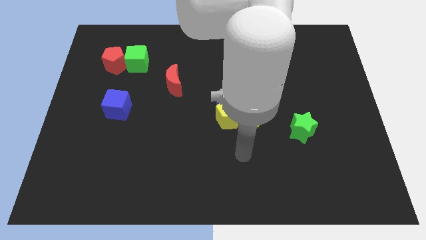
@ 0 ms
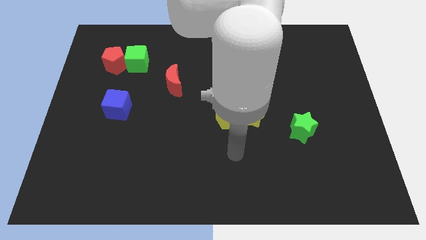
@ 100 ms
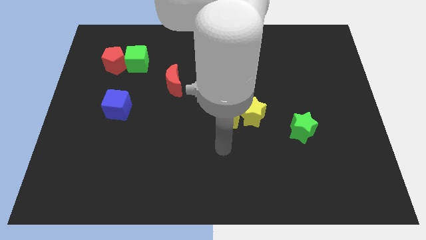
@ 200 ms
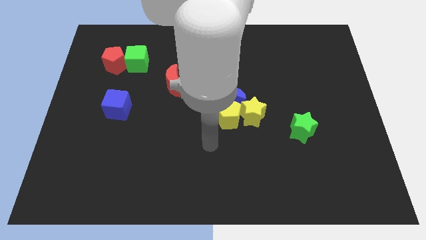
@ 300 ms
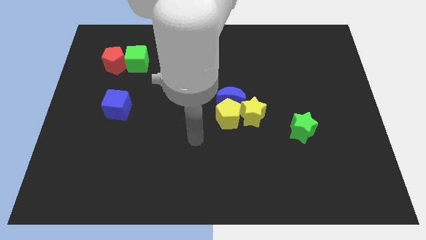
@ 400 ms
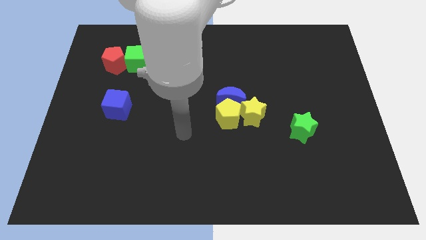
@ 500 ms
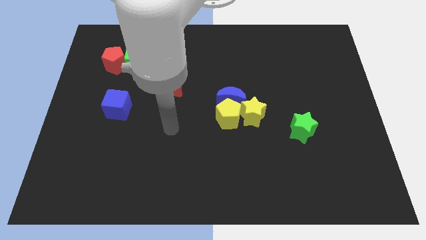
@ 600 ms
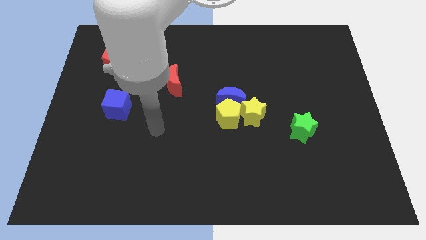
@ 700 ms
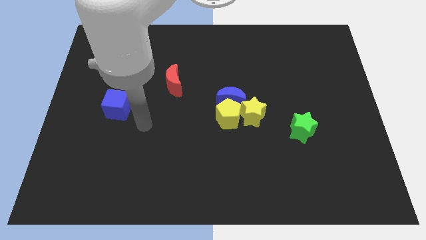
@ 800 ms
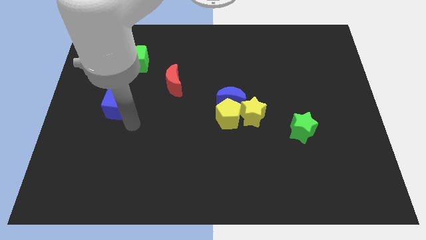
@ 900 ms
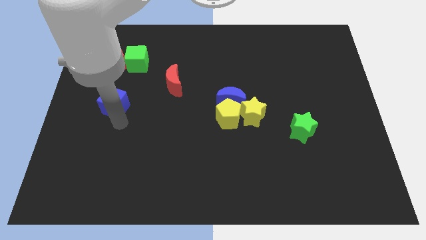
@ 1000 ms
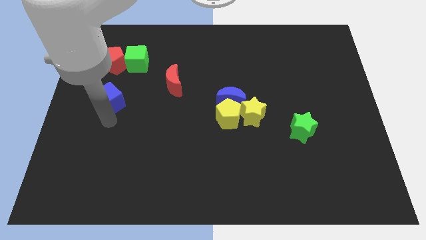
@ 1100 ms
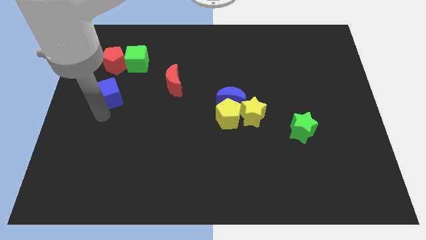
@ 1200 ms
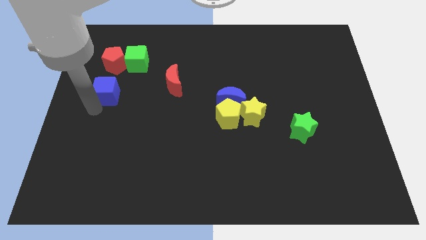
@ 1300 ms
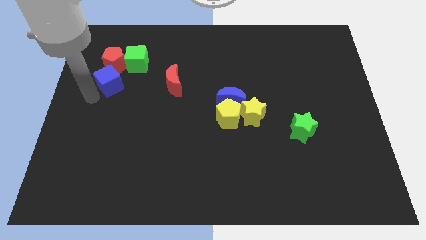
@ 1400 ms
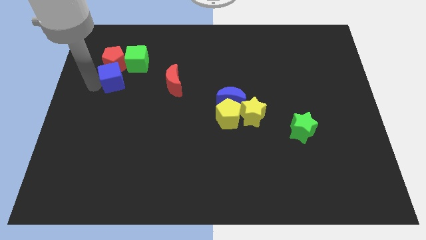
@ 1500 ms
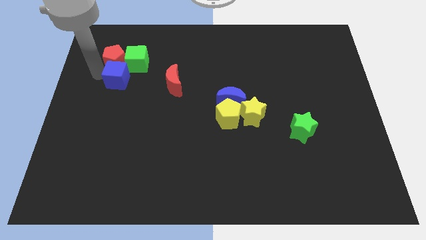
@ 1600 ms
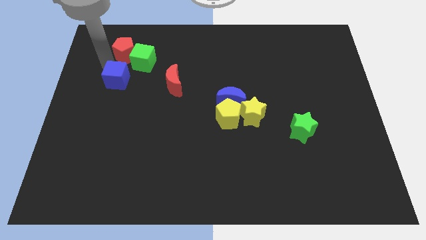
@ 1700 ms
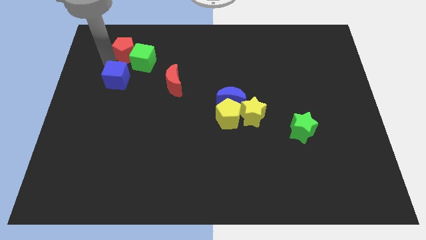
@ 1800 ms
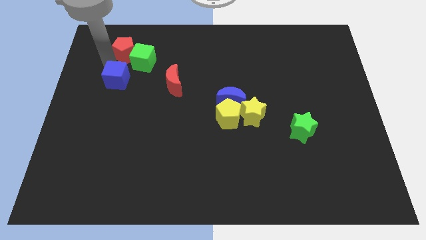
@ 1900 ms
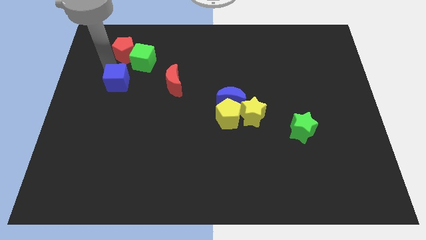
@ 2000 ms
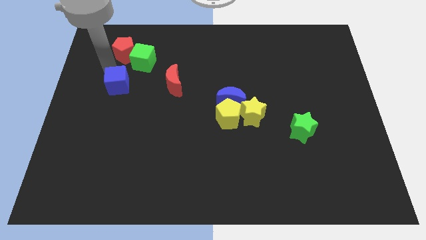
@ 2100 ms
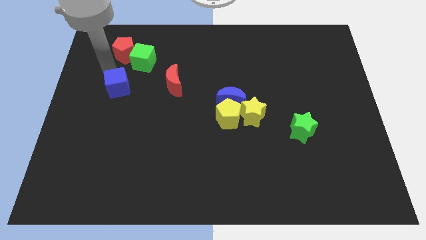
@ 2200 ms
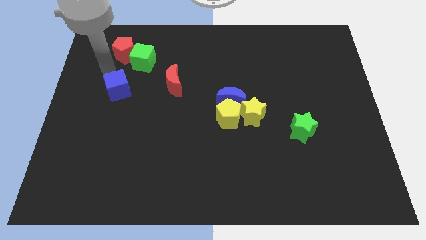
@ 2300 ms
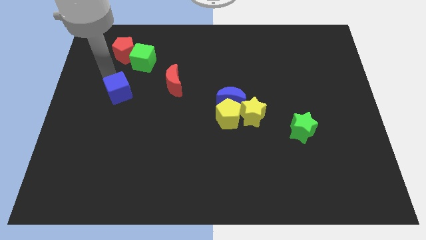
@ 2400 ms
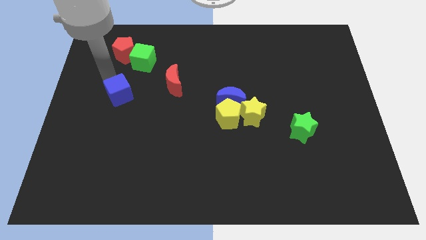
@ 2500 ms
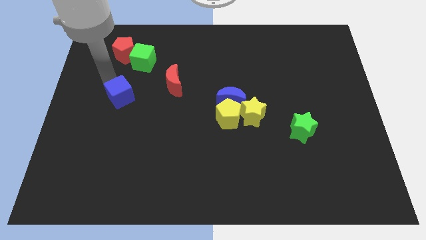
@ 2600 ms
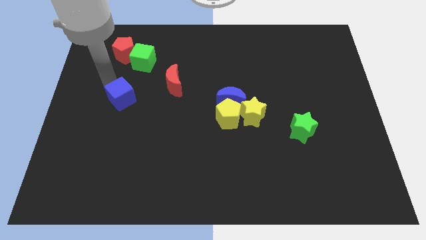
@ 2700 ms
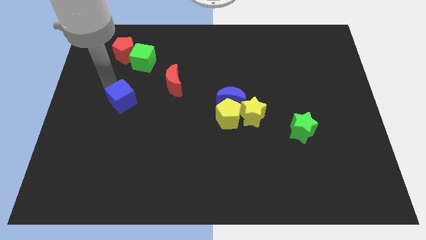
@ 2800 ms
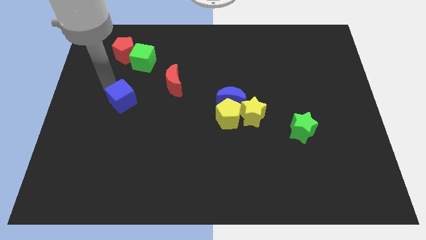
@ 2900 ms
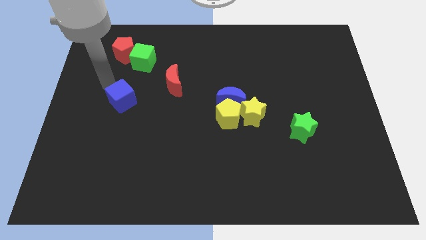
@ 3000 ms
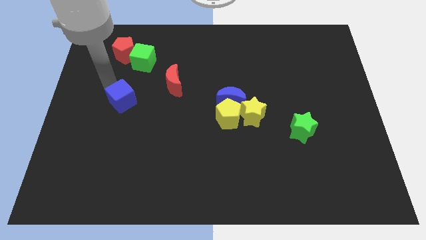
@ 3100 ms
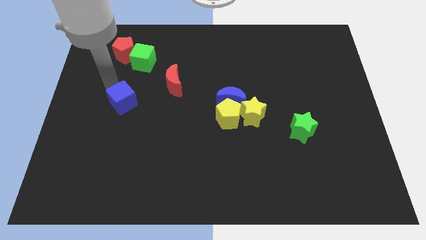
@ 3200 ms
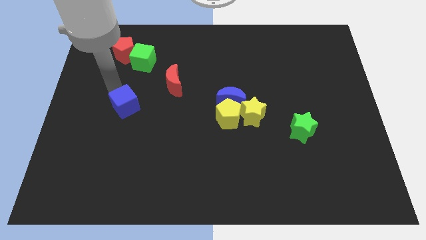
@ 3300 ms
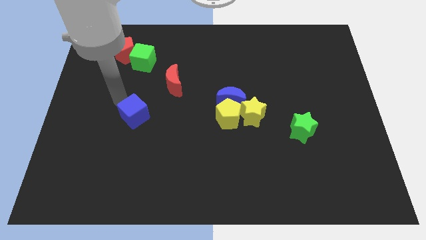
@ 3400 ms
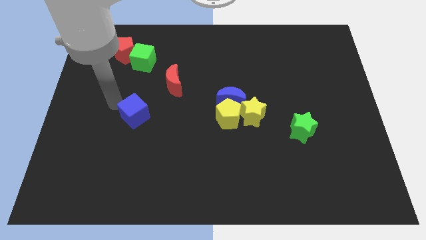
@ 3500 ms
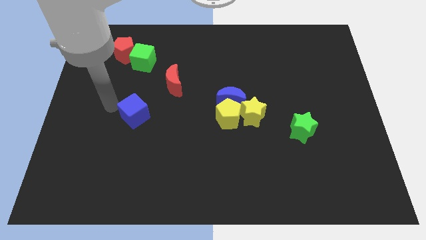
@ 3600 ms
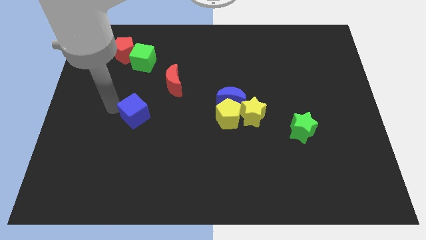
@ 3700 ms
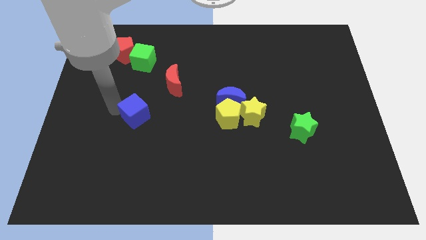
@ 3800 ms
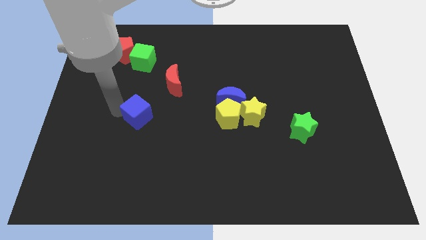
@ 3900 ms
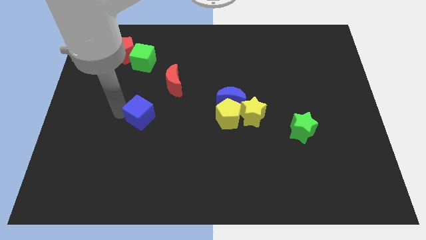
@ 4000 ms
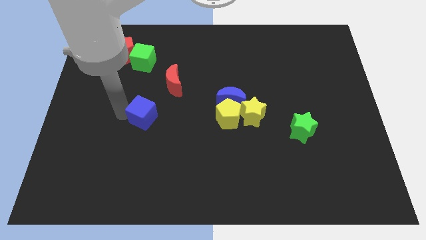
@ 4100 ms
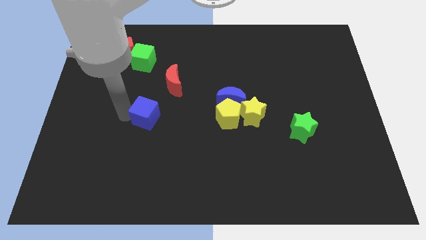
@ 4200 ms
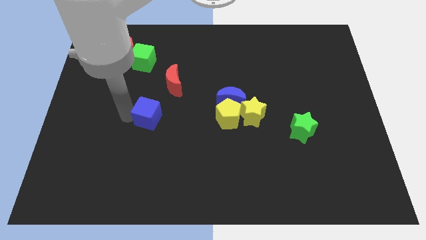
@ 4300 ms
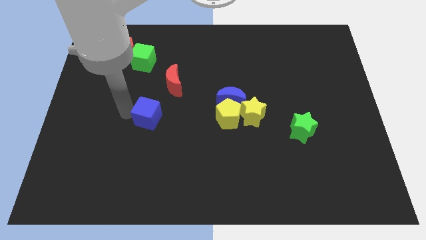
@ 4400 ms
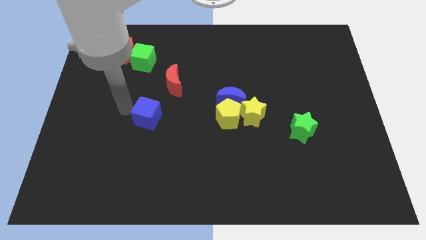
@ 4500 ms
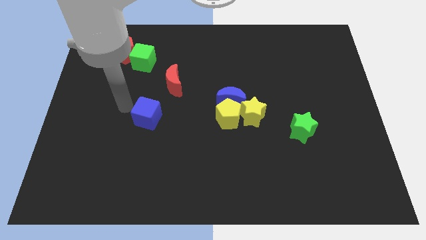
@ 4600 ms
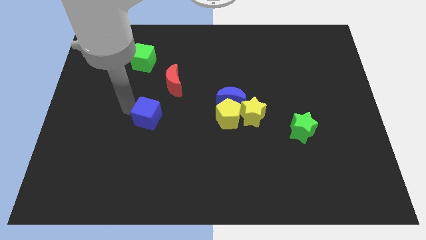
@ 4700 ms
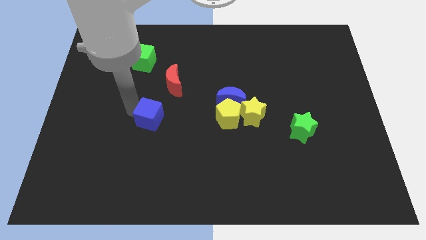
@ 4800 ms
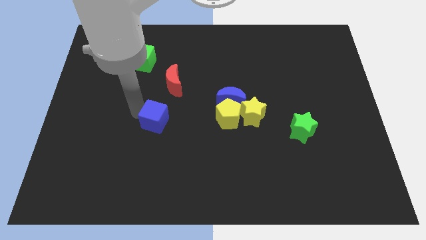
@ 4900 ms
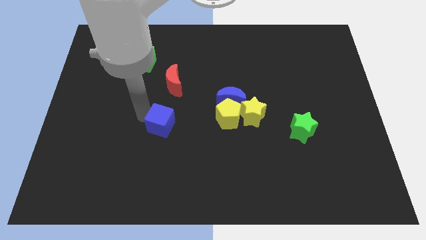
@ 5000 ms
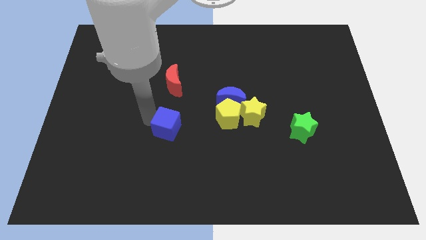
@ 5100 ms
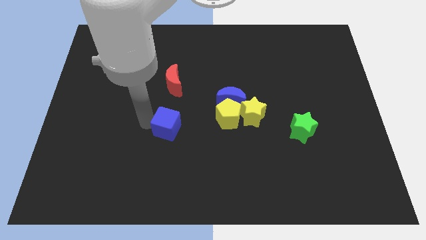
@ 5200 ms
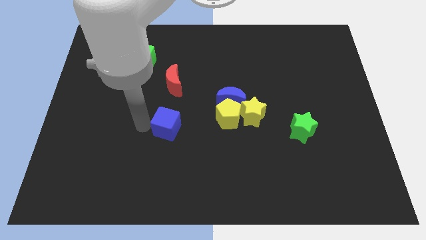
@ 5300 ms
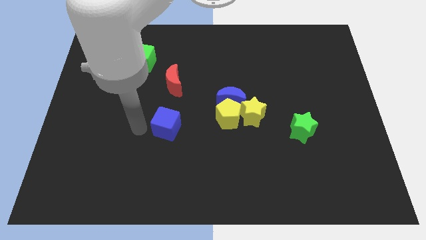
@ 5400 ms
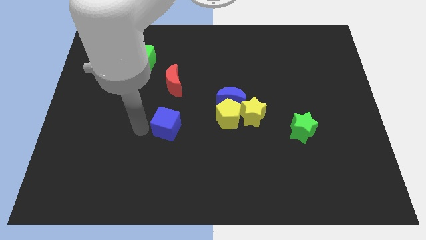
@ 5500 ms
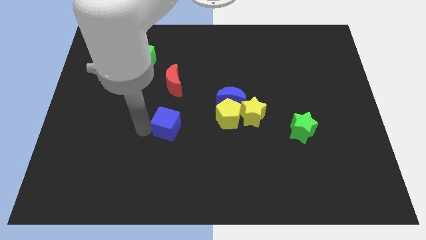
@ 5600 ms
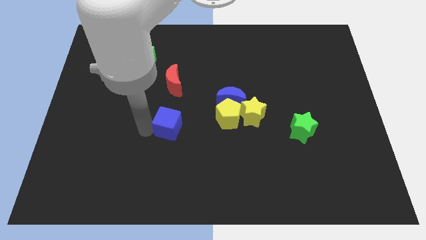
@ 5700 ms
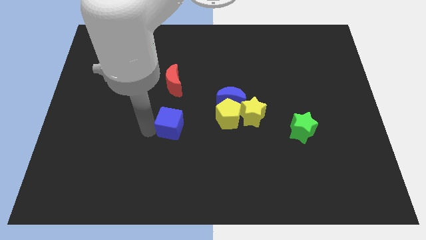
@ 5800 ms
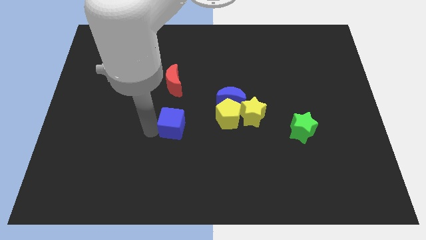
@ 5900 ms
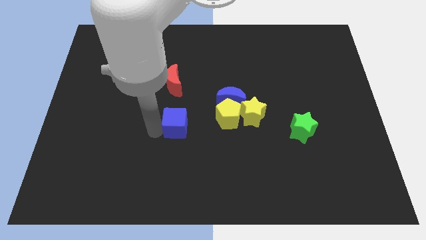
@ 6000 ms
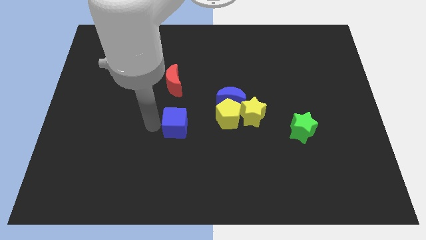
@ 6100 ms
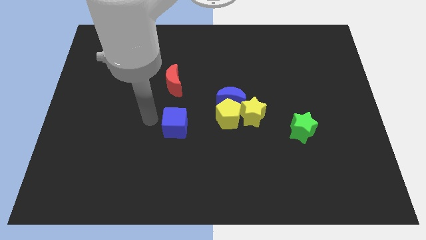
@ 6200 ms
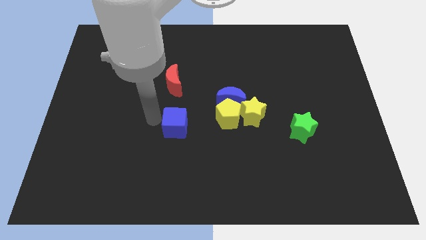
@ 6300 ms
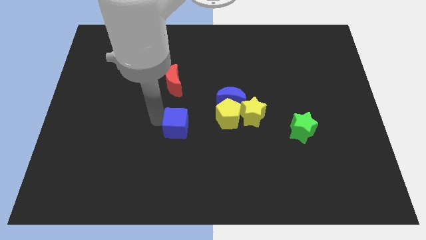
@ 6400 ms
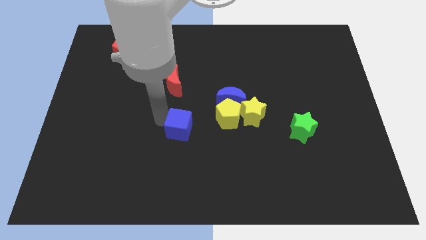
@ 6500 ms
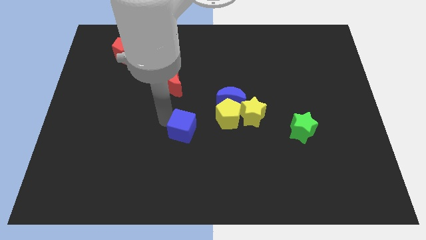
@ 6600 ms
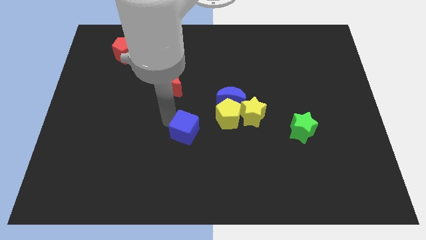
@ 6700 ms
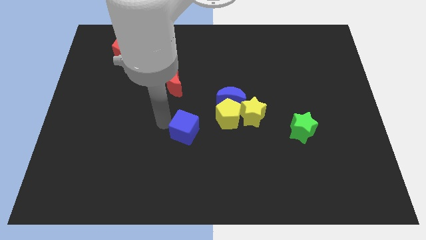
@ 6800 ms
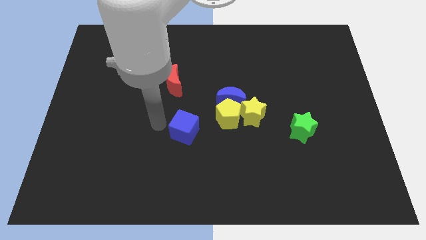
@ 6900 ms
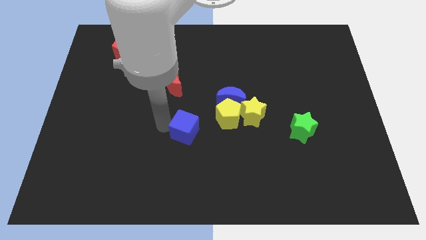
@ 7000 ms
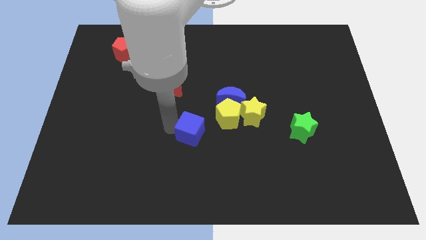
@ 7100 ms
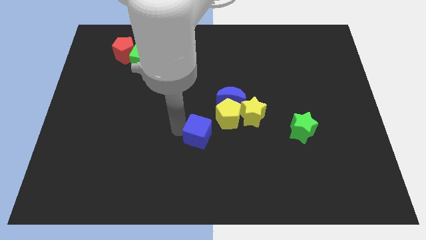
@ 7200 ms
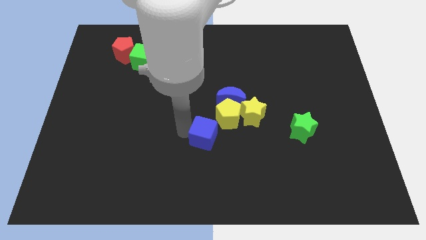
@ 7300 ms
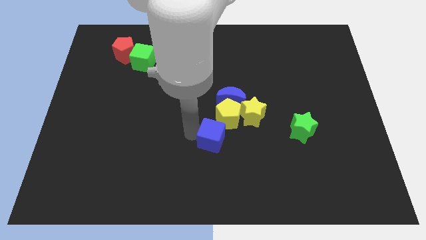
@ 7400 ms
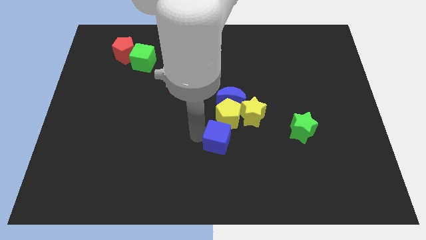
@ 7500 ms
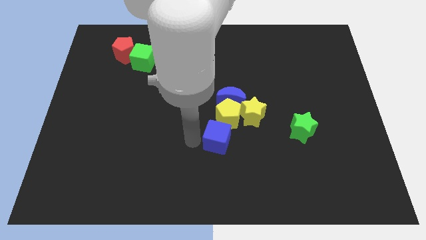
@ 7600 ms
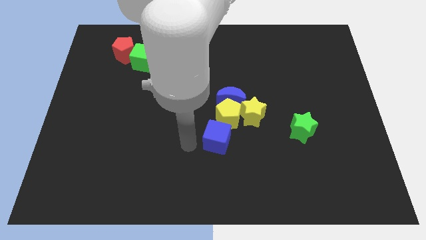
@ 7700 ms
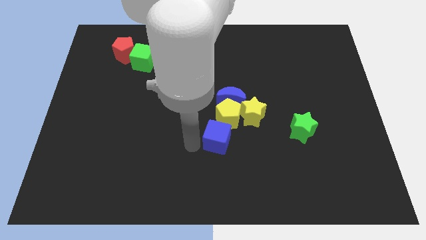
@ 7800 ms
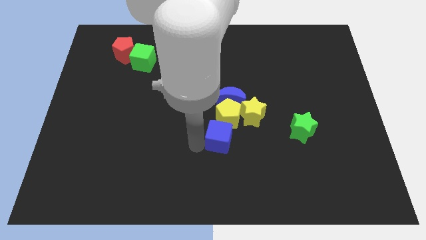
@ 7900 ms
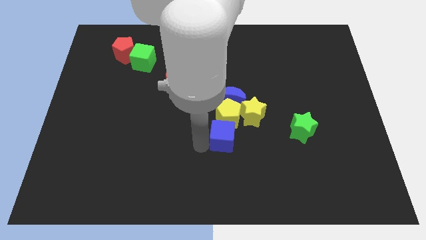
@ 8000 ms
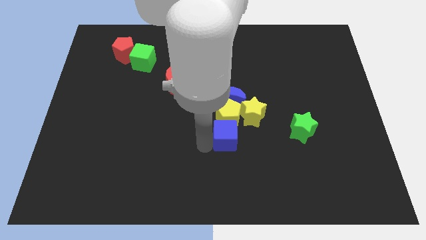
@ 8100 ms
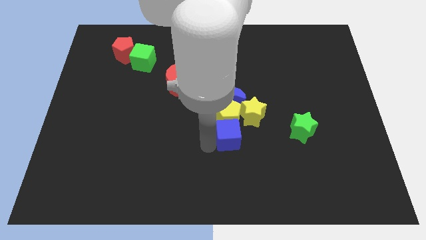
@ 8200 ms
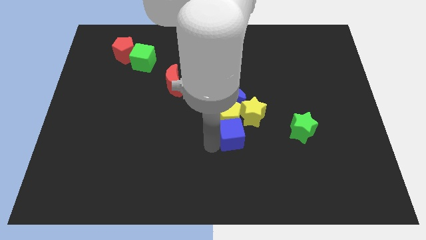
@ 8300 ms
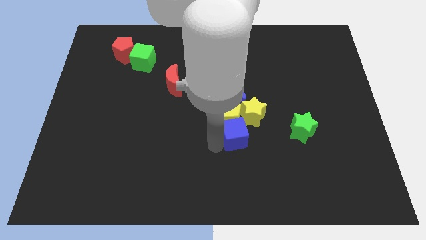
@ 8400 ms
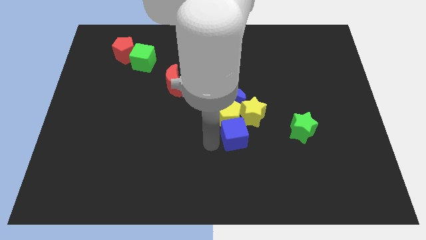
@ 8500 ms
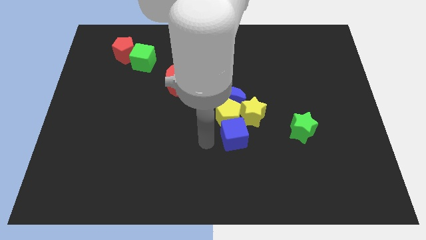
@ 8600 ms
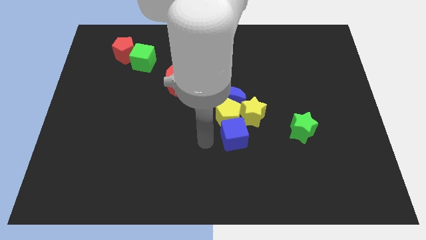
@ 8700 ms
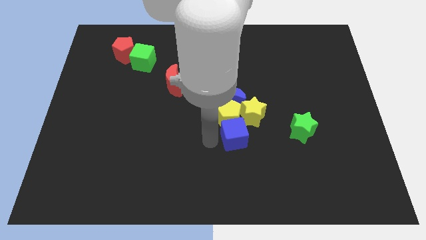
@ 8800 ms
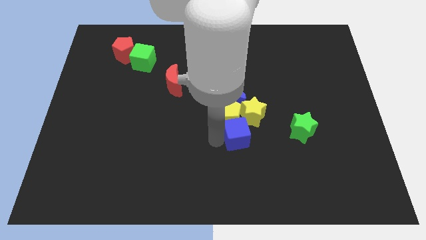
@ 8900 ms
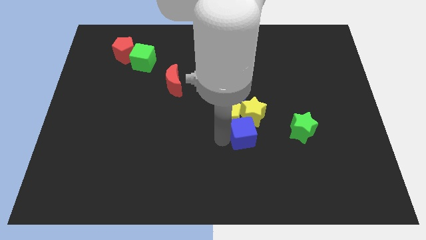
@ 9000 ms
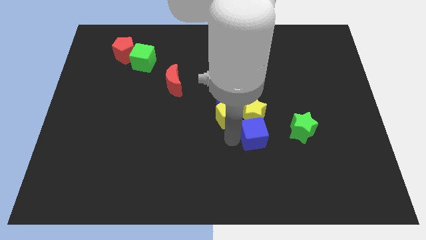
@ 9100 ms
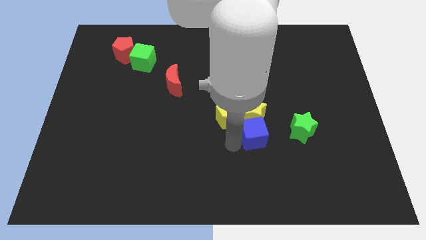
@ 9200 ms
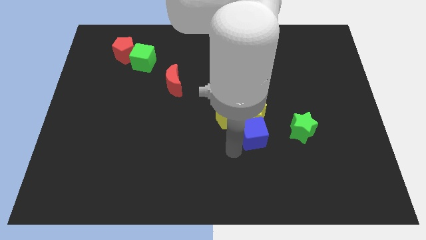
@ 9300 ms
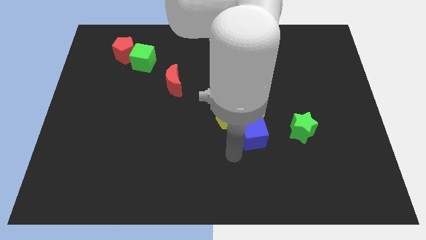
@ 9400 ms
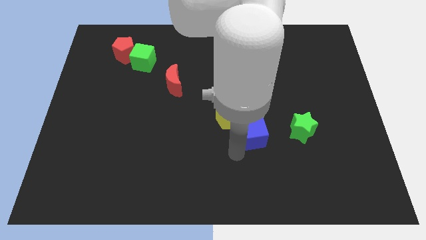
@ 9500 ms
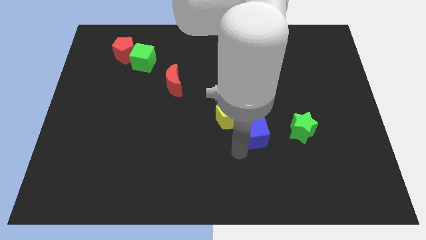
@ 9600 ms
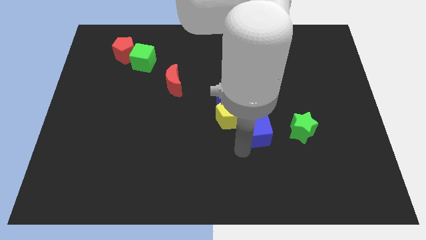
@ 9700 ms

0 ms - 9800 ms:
push the blue cube to the right side of the yellow pentagon
